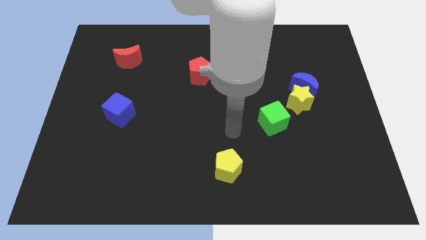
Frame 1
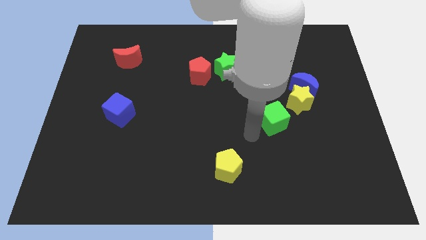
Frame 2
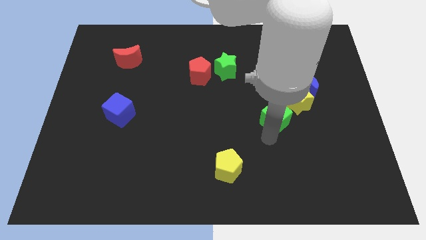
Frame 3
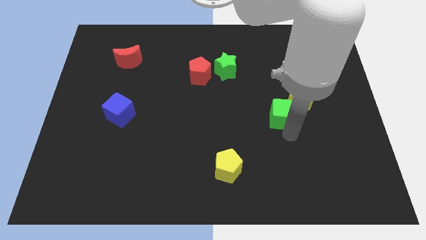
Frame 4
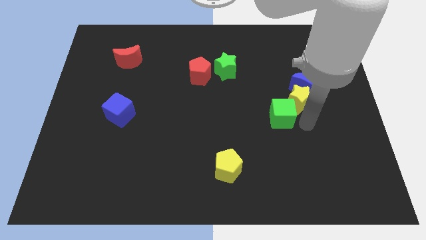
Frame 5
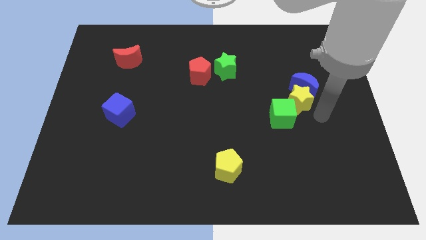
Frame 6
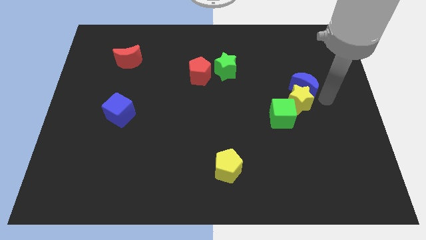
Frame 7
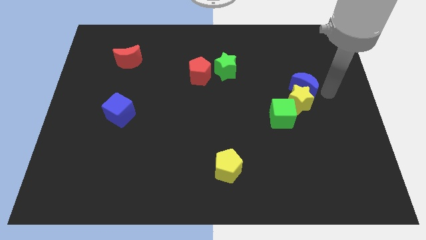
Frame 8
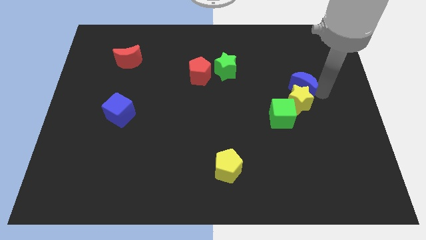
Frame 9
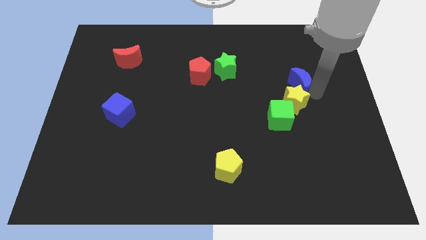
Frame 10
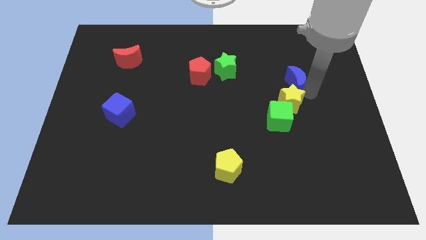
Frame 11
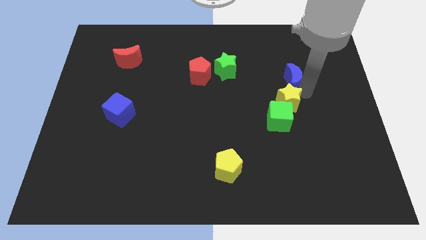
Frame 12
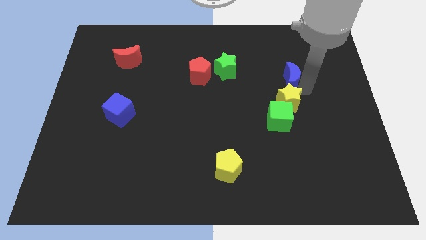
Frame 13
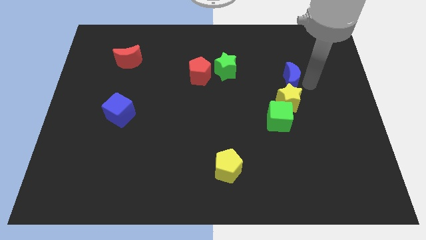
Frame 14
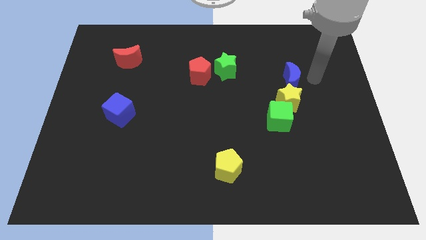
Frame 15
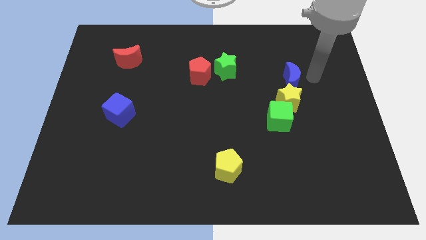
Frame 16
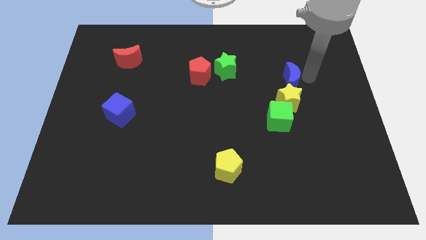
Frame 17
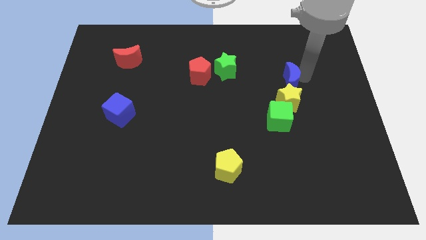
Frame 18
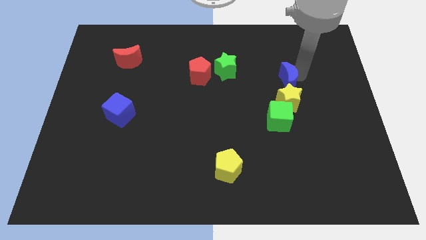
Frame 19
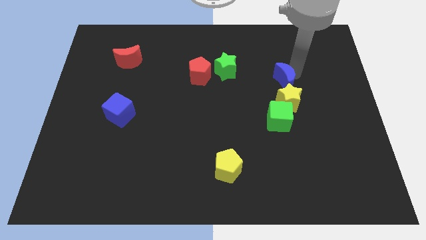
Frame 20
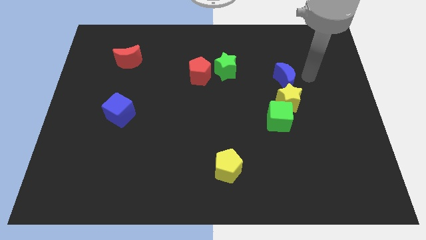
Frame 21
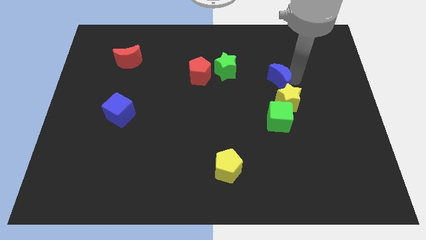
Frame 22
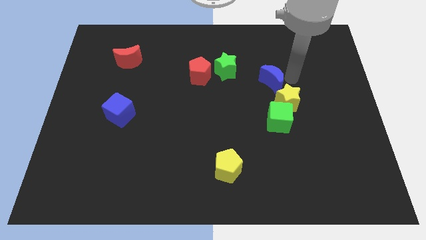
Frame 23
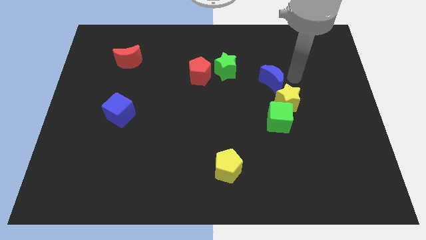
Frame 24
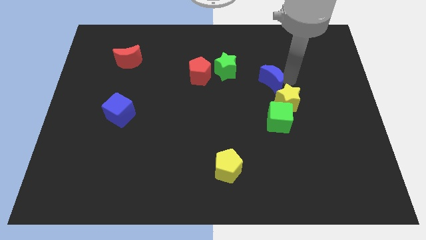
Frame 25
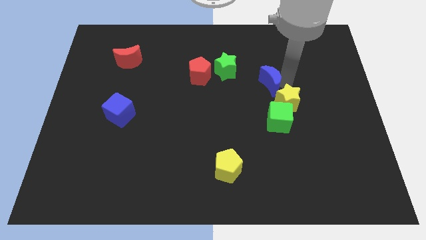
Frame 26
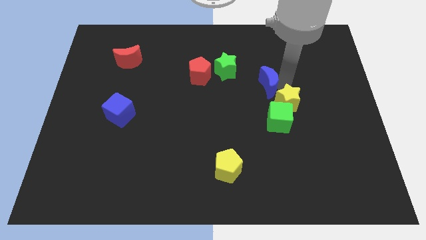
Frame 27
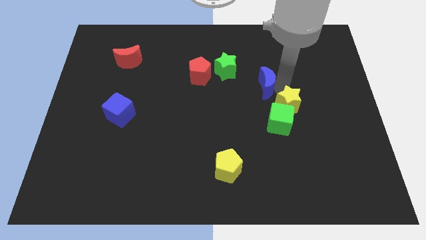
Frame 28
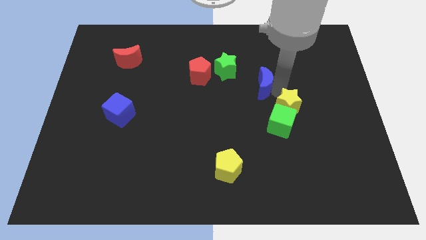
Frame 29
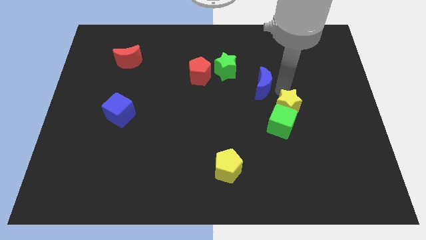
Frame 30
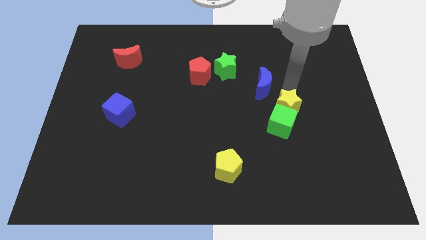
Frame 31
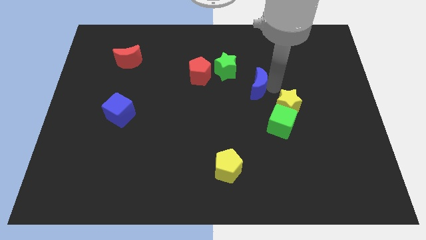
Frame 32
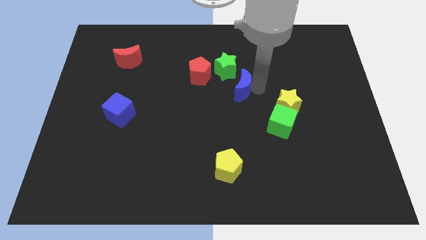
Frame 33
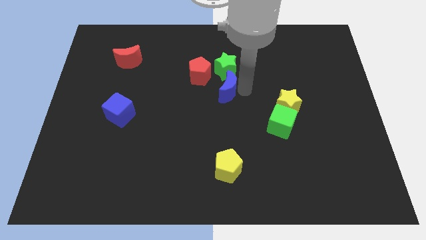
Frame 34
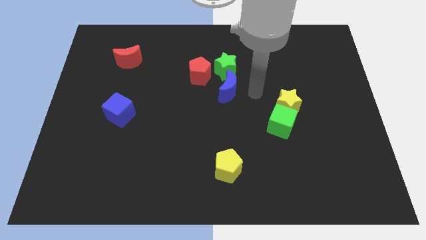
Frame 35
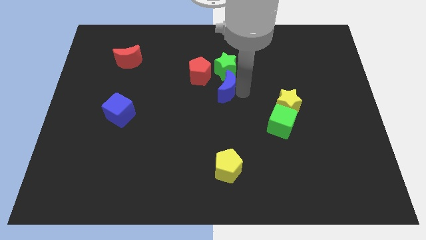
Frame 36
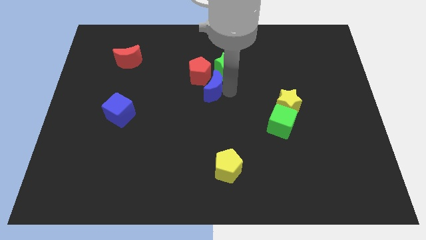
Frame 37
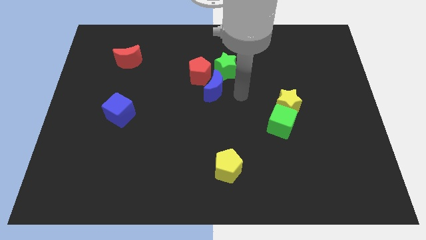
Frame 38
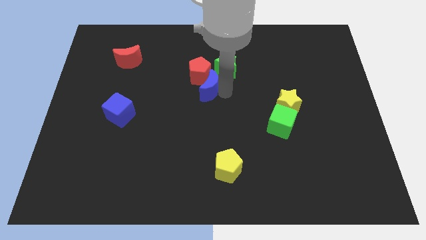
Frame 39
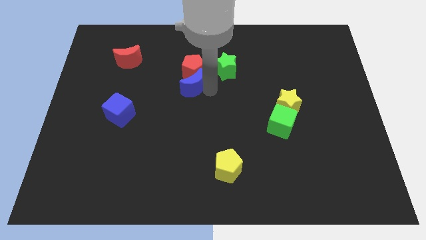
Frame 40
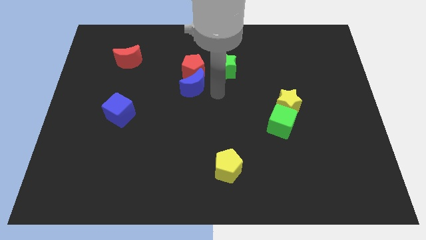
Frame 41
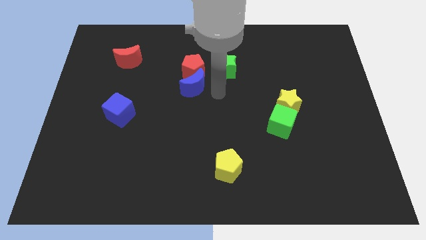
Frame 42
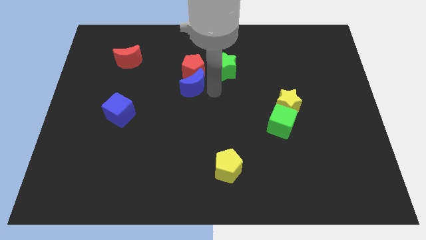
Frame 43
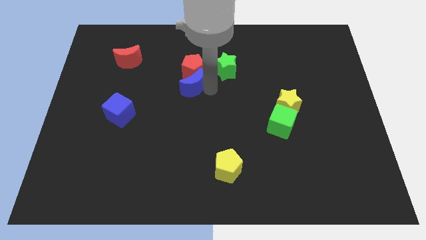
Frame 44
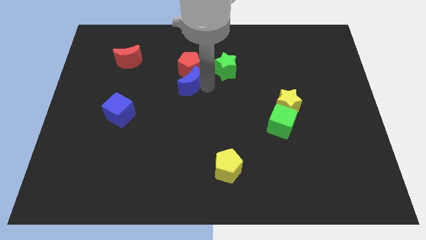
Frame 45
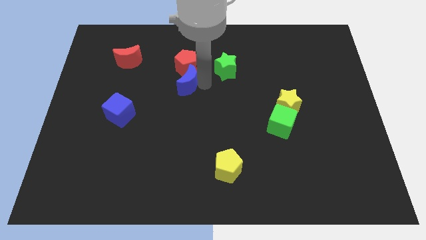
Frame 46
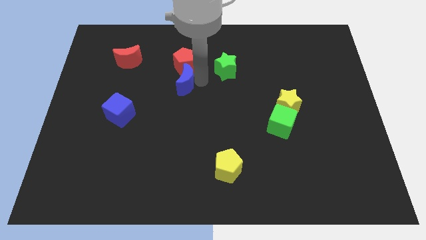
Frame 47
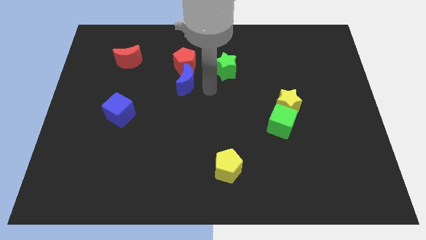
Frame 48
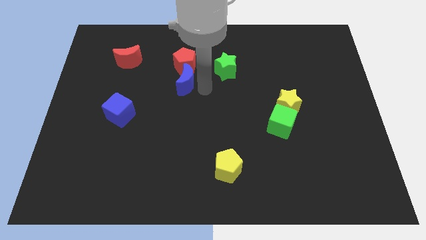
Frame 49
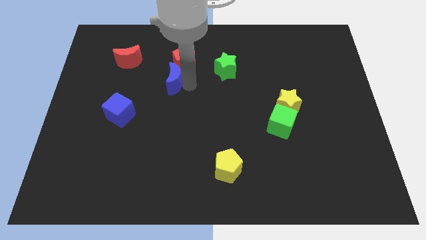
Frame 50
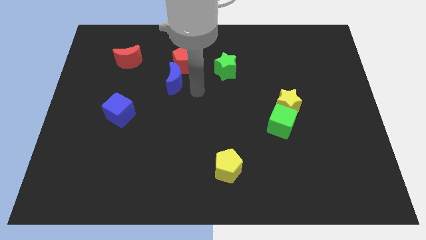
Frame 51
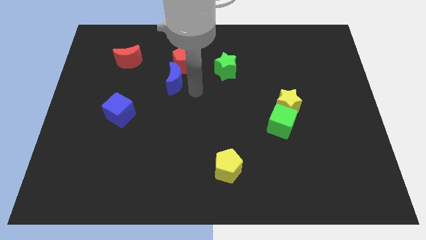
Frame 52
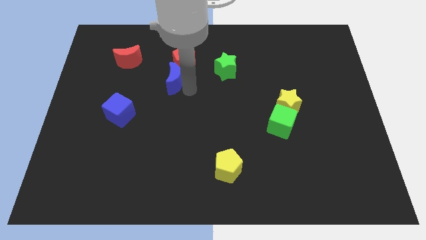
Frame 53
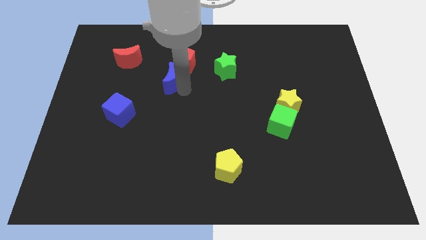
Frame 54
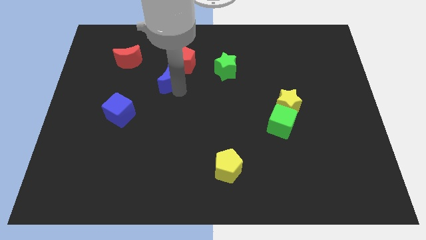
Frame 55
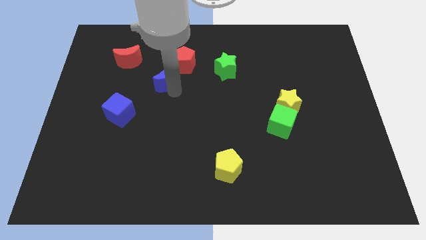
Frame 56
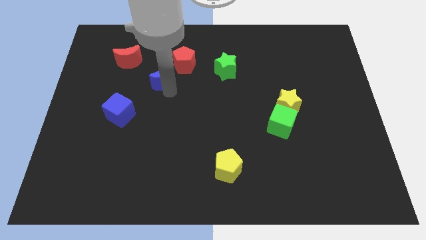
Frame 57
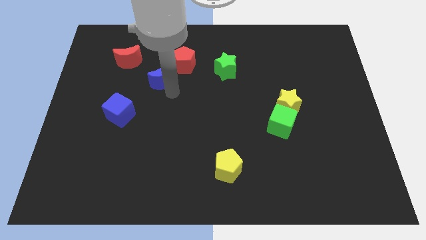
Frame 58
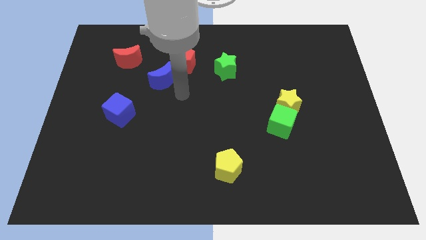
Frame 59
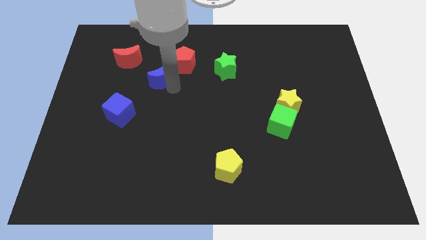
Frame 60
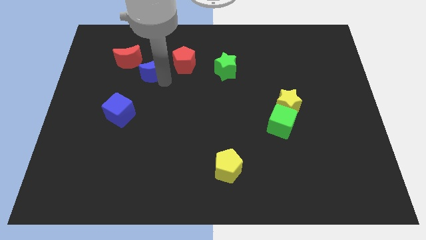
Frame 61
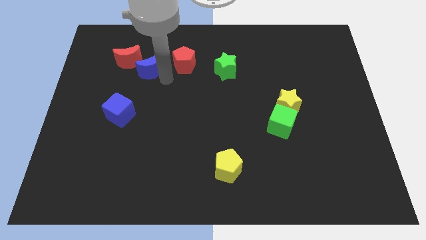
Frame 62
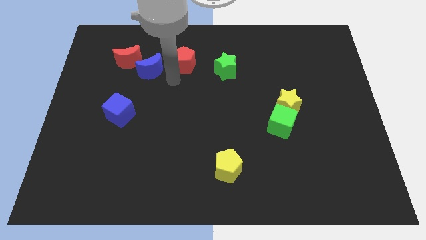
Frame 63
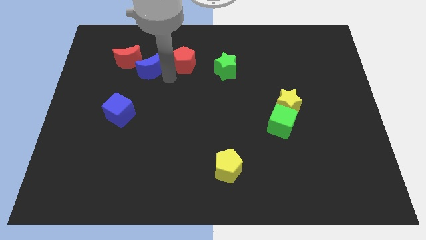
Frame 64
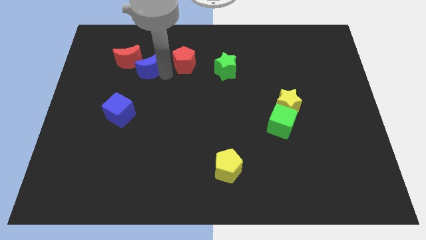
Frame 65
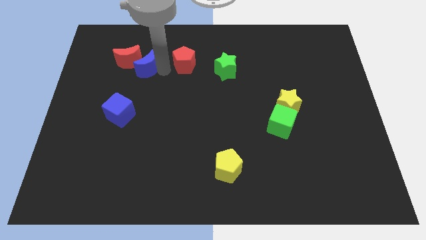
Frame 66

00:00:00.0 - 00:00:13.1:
slide the blue moon towards the red moon
